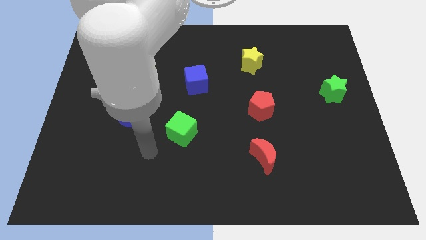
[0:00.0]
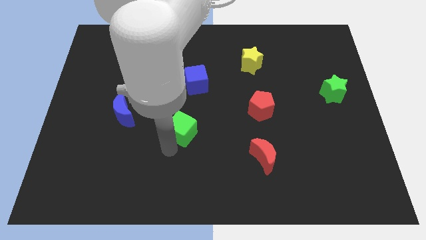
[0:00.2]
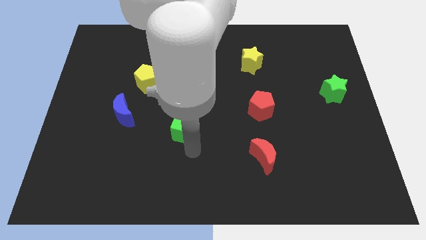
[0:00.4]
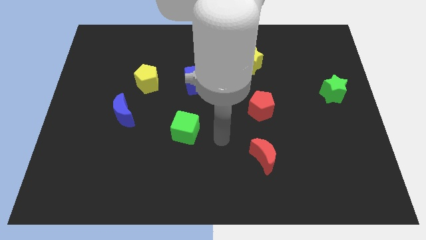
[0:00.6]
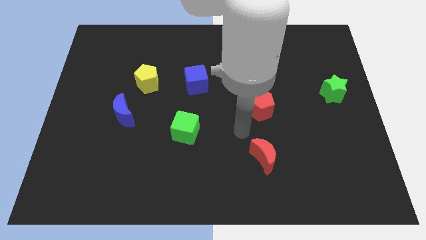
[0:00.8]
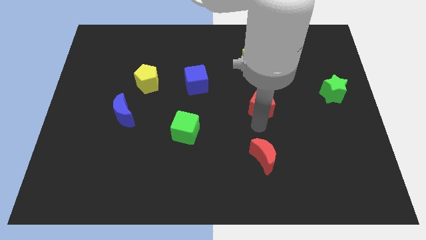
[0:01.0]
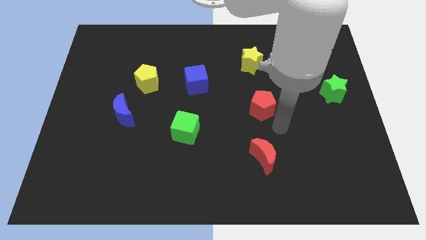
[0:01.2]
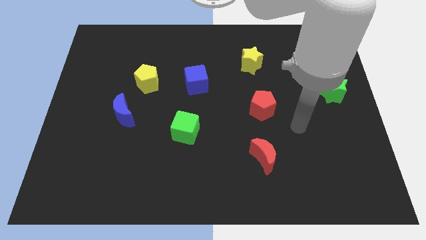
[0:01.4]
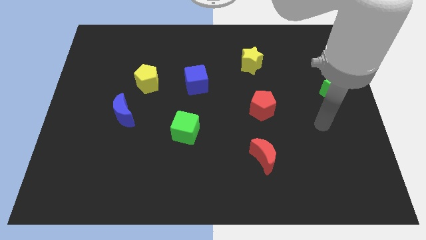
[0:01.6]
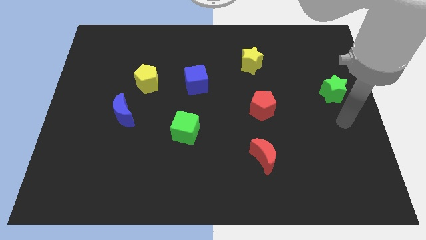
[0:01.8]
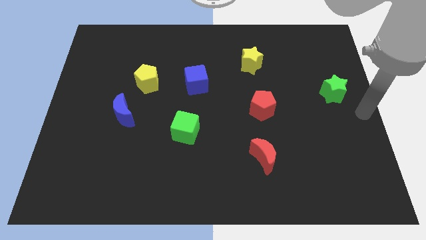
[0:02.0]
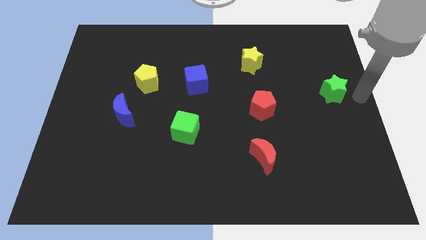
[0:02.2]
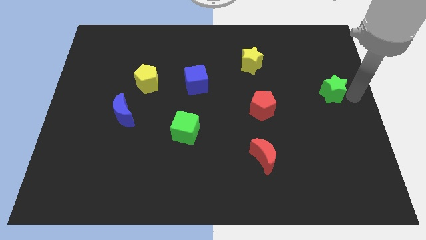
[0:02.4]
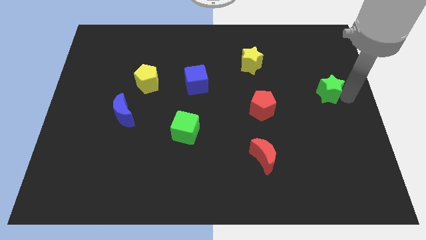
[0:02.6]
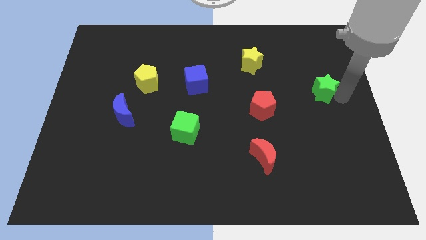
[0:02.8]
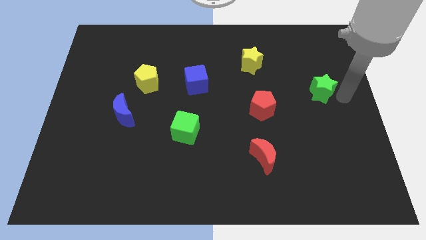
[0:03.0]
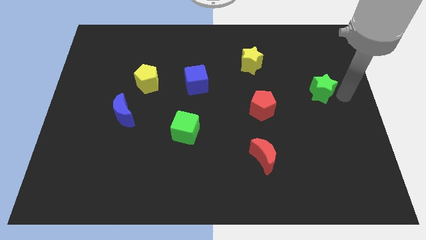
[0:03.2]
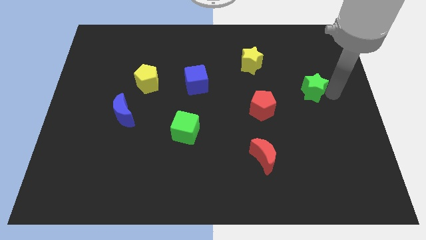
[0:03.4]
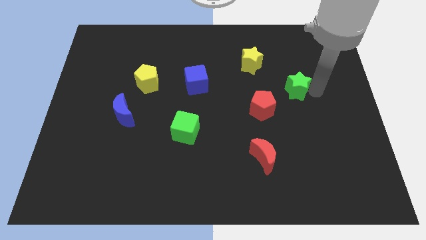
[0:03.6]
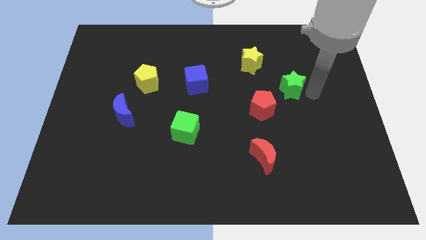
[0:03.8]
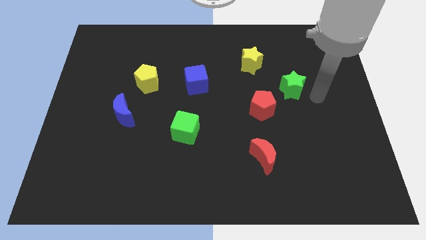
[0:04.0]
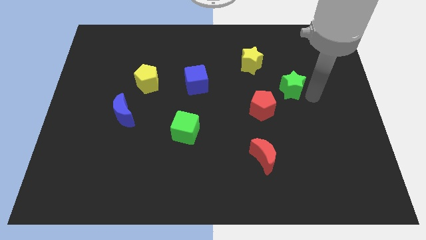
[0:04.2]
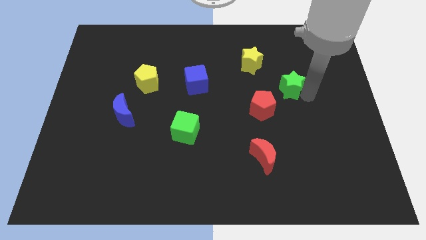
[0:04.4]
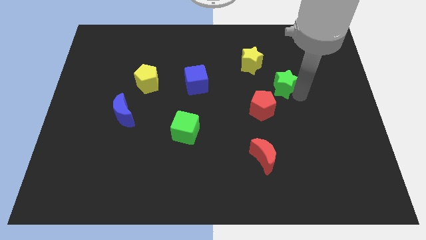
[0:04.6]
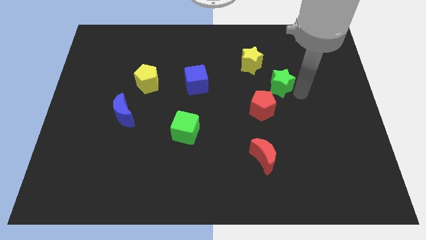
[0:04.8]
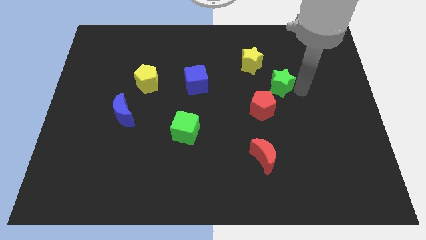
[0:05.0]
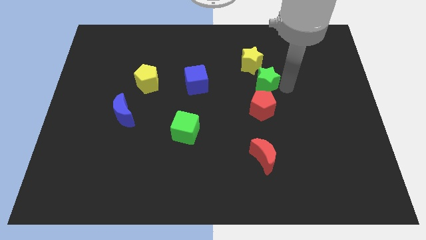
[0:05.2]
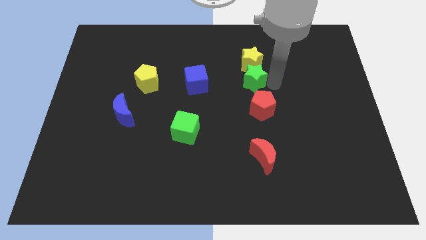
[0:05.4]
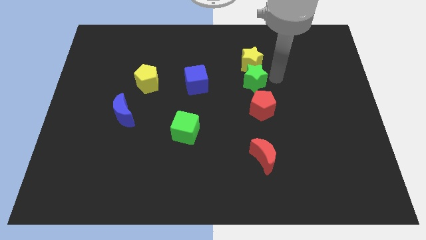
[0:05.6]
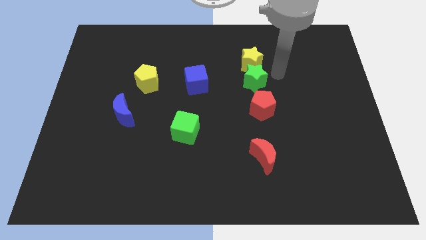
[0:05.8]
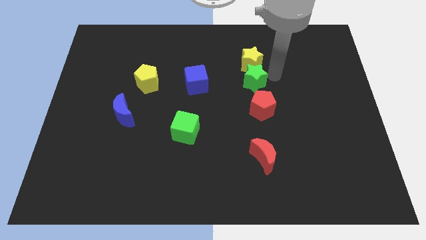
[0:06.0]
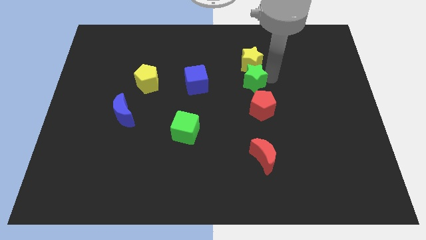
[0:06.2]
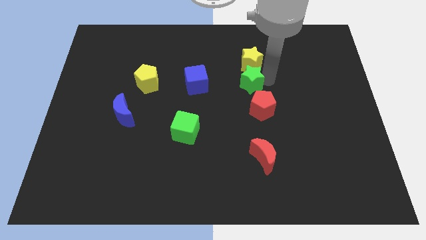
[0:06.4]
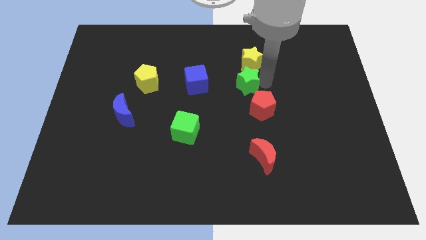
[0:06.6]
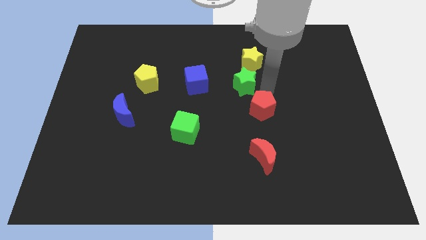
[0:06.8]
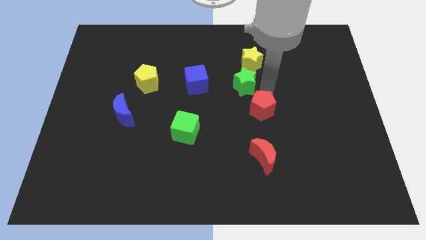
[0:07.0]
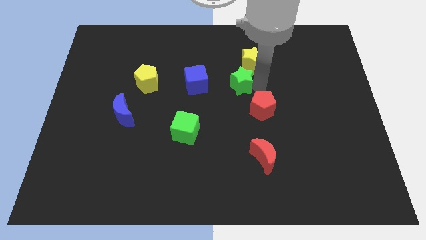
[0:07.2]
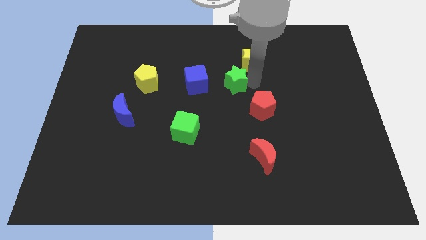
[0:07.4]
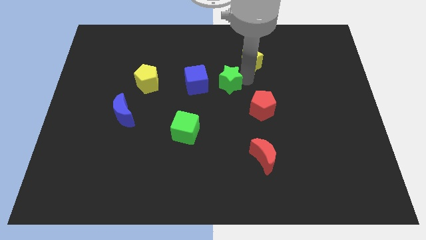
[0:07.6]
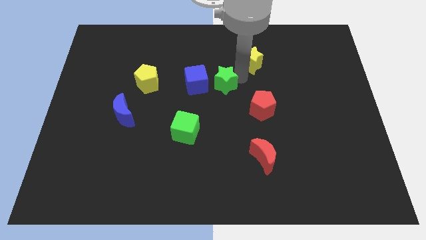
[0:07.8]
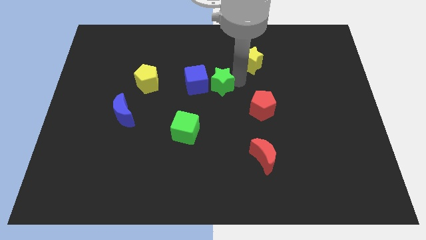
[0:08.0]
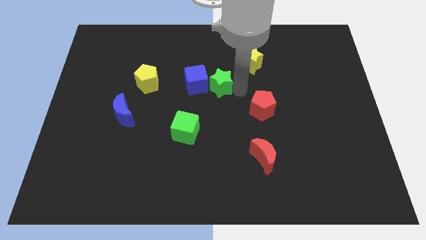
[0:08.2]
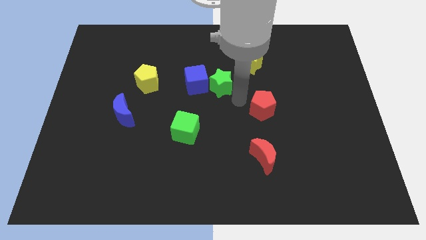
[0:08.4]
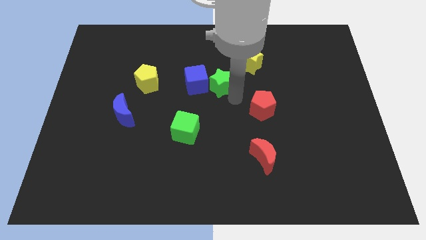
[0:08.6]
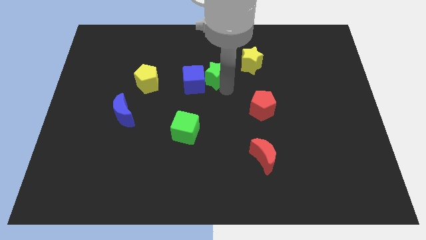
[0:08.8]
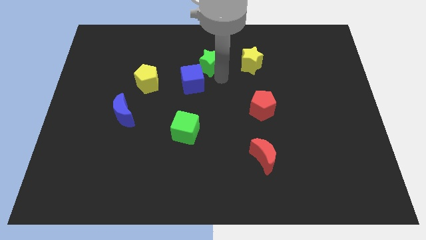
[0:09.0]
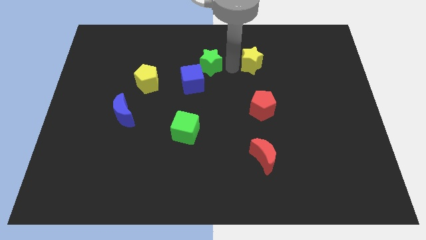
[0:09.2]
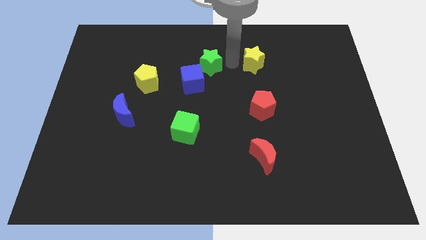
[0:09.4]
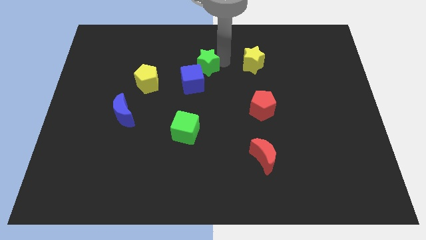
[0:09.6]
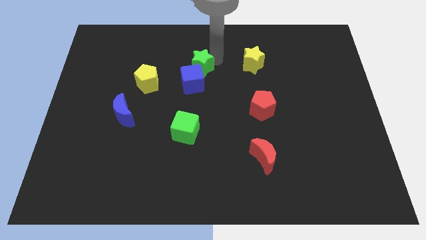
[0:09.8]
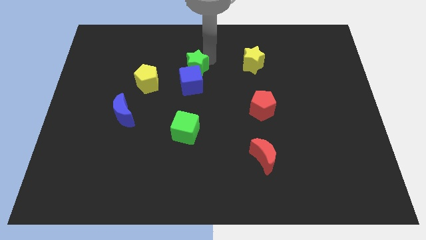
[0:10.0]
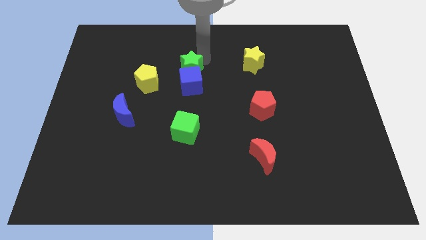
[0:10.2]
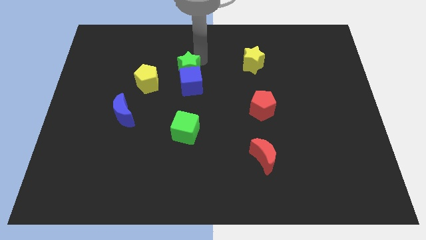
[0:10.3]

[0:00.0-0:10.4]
move the green star to the top right of the yellow pentagon

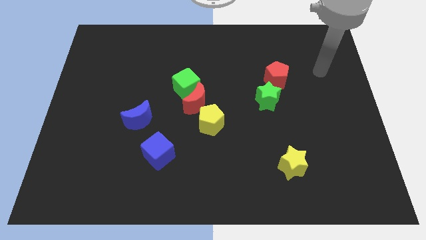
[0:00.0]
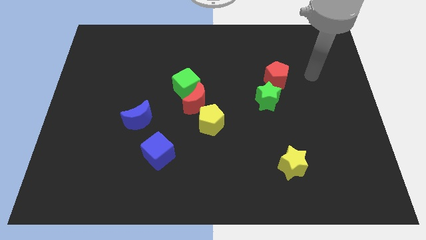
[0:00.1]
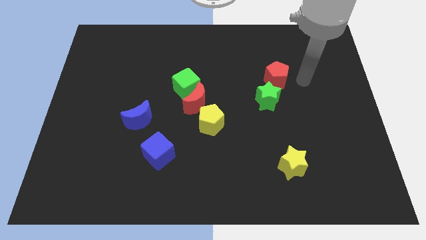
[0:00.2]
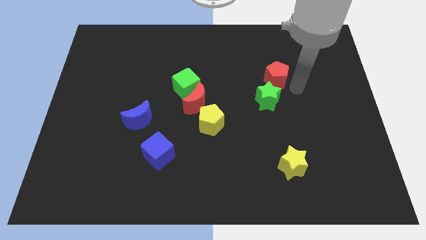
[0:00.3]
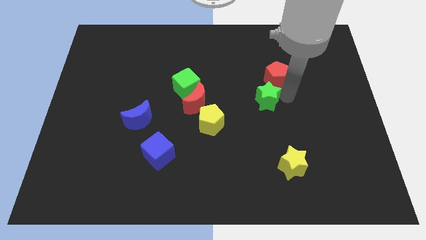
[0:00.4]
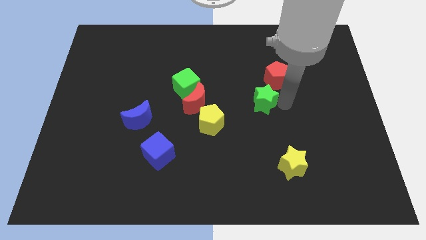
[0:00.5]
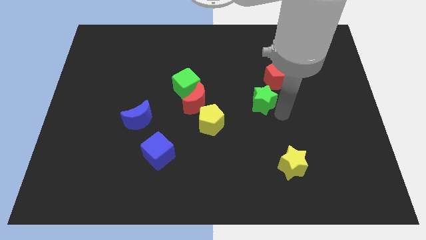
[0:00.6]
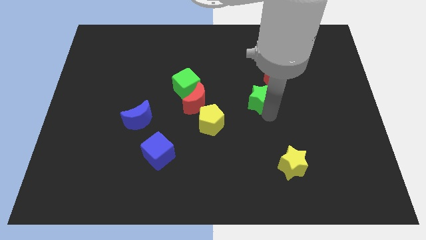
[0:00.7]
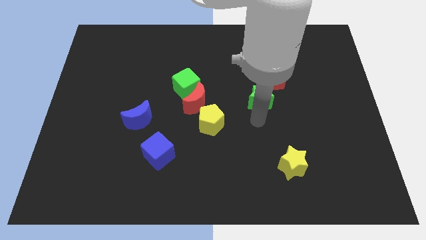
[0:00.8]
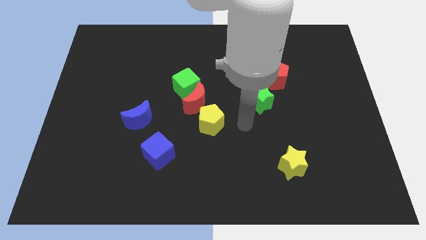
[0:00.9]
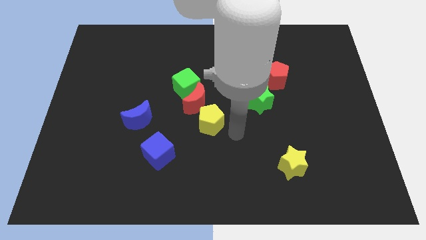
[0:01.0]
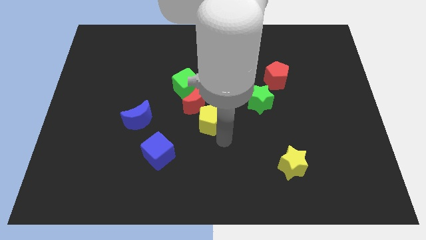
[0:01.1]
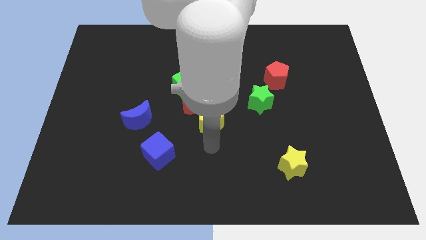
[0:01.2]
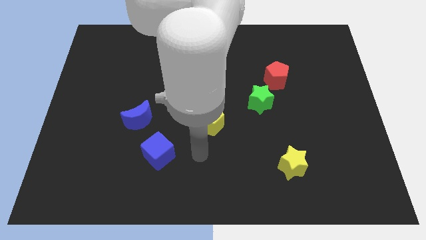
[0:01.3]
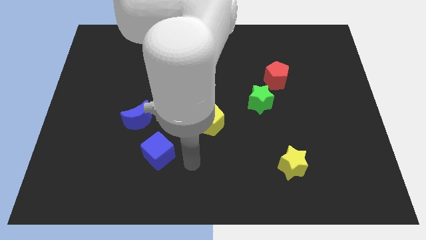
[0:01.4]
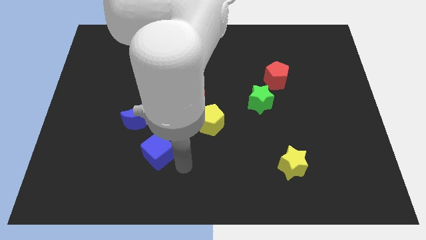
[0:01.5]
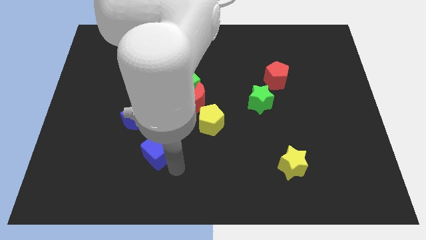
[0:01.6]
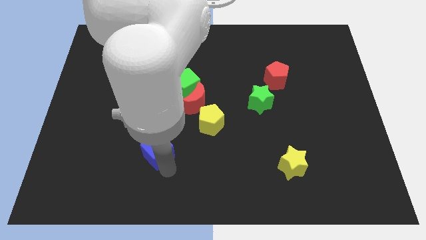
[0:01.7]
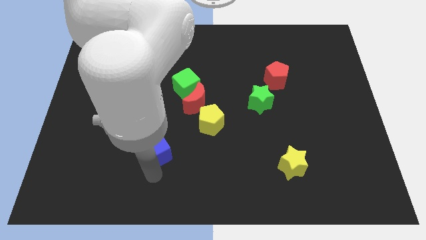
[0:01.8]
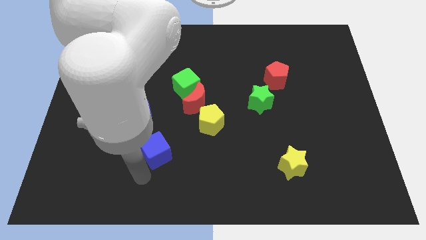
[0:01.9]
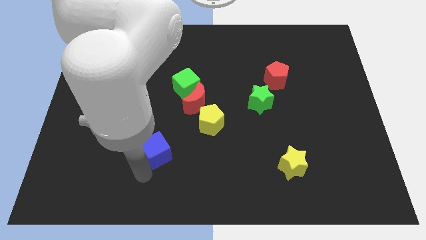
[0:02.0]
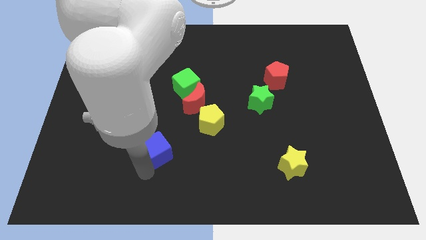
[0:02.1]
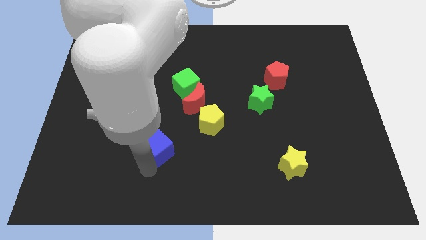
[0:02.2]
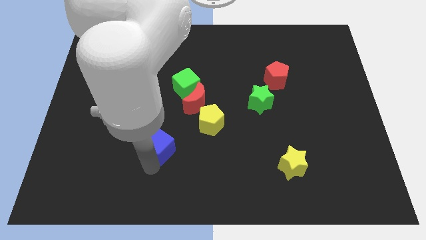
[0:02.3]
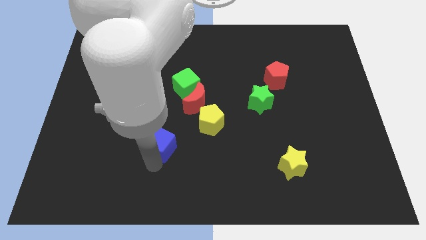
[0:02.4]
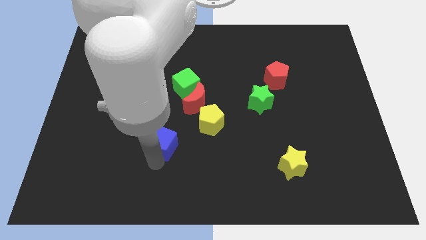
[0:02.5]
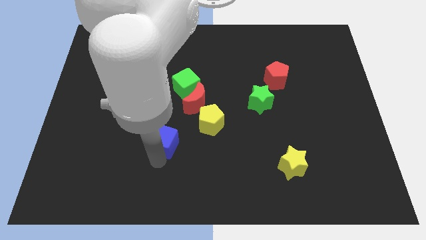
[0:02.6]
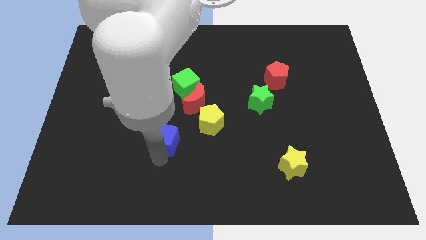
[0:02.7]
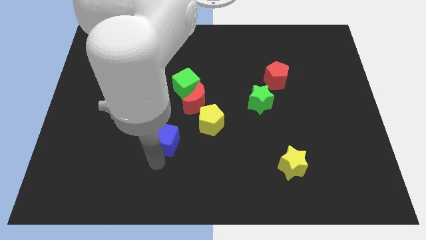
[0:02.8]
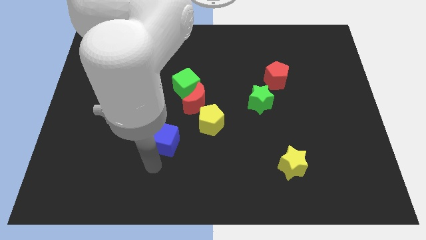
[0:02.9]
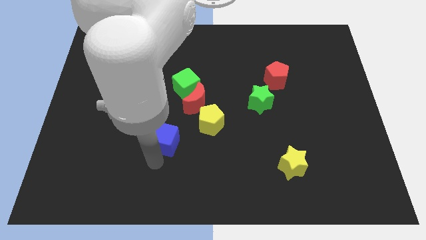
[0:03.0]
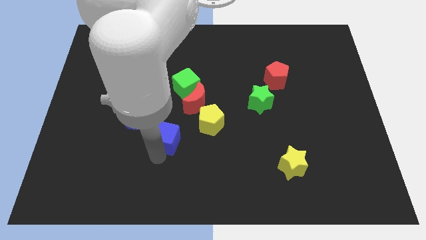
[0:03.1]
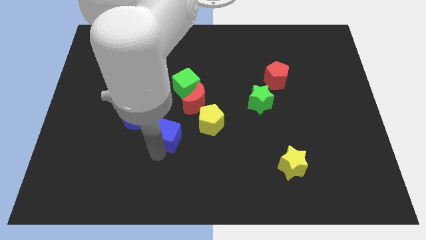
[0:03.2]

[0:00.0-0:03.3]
put the blue cube to the right side of the blue moon
